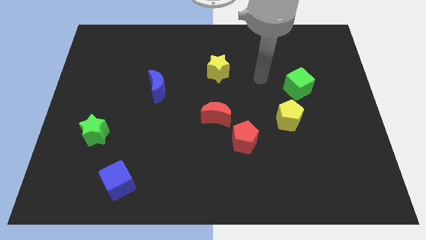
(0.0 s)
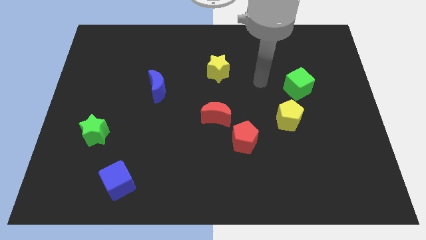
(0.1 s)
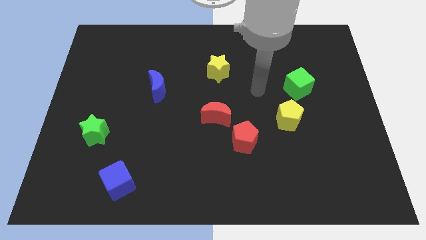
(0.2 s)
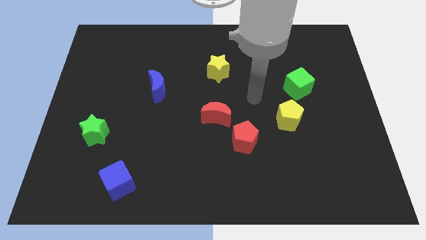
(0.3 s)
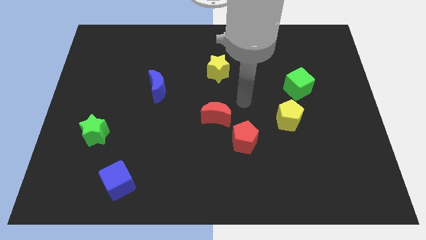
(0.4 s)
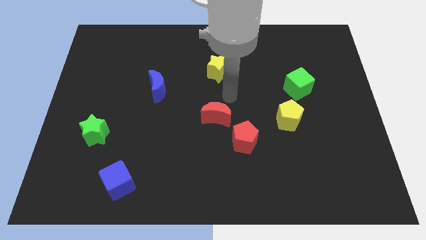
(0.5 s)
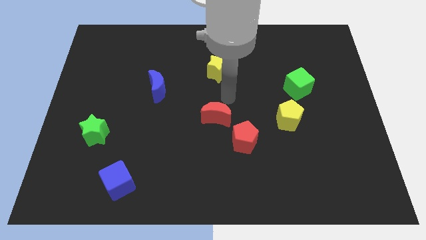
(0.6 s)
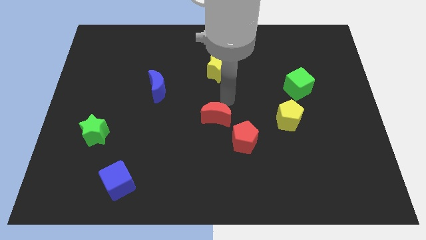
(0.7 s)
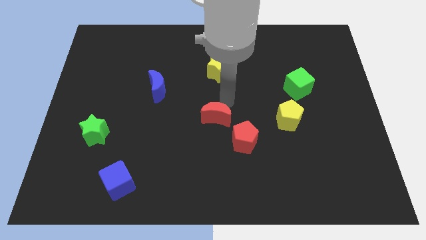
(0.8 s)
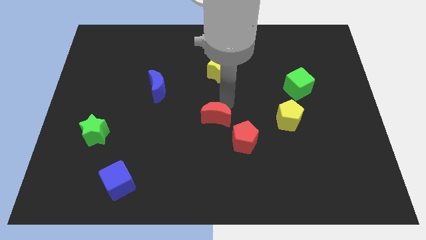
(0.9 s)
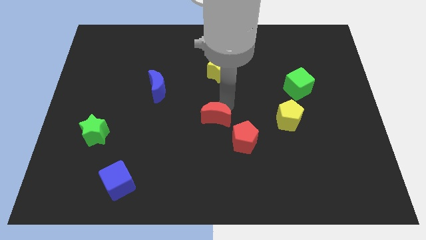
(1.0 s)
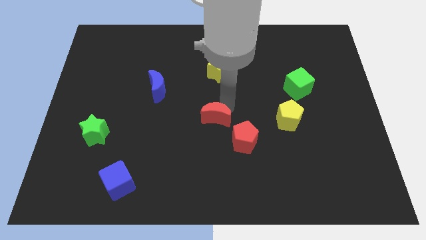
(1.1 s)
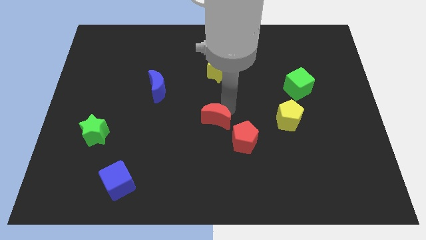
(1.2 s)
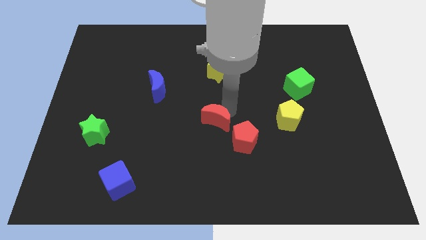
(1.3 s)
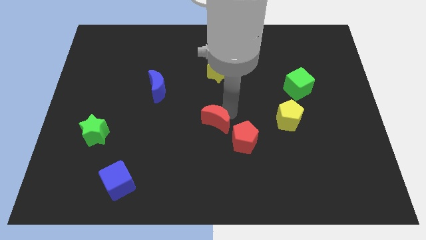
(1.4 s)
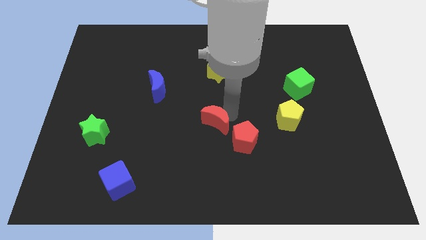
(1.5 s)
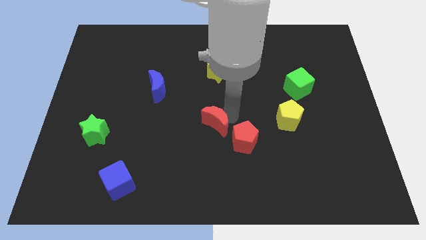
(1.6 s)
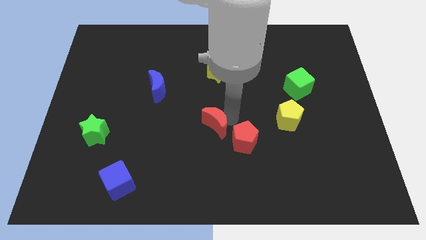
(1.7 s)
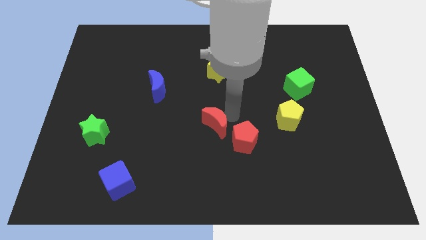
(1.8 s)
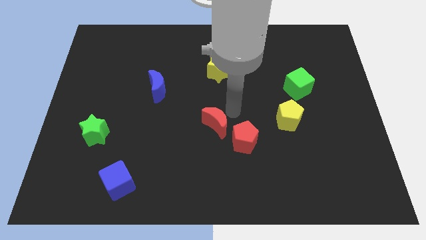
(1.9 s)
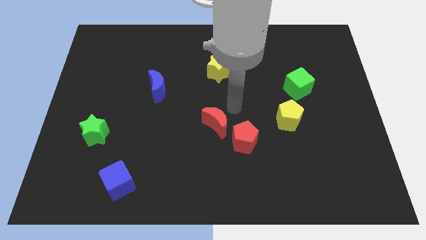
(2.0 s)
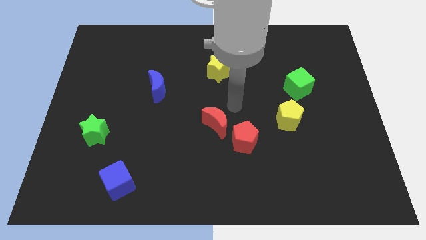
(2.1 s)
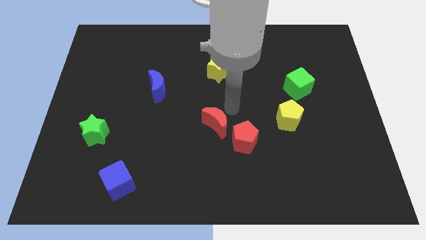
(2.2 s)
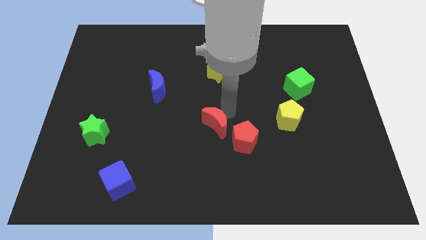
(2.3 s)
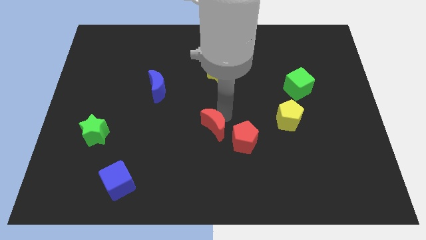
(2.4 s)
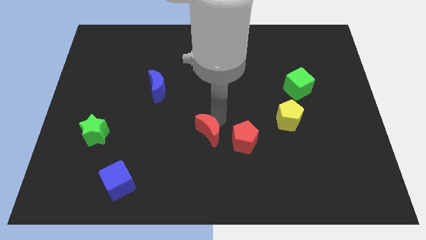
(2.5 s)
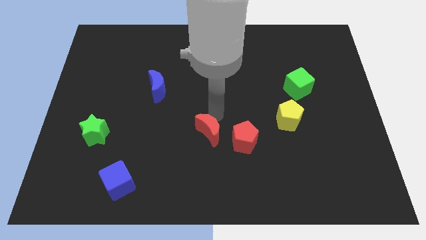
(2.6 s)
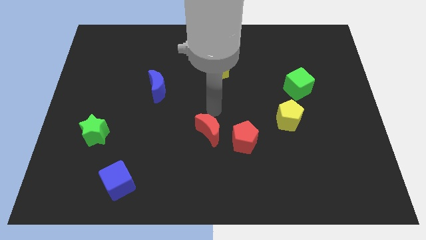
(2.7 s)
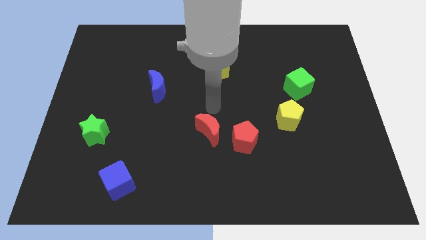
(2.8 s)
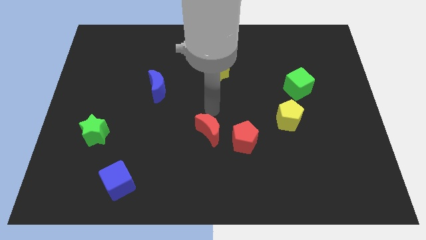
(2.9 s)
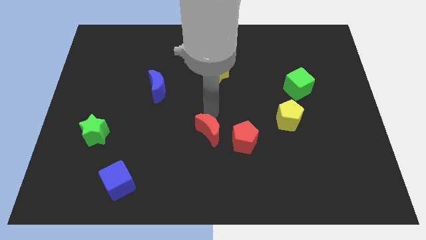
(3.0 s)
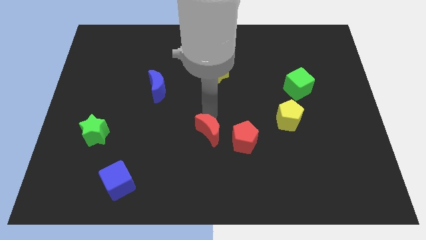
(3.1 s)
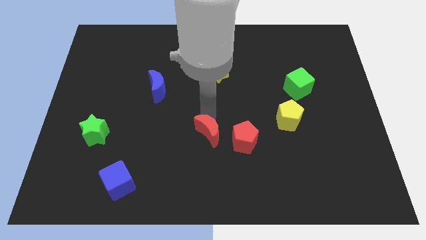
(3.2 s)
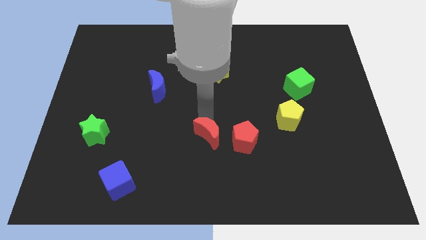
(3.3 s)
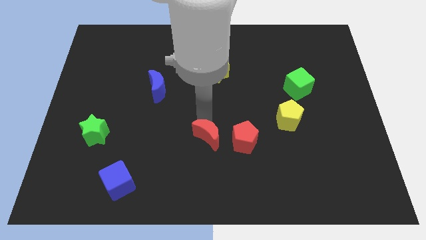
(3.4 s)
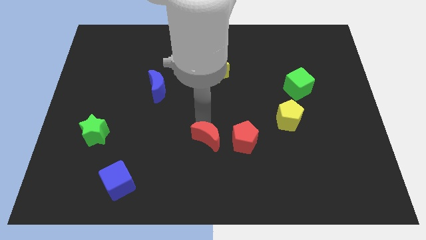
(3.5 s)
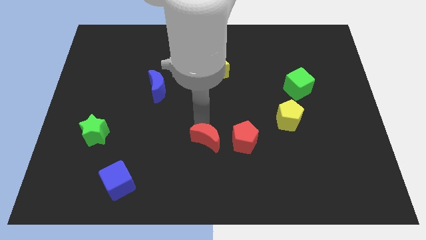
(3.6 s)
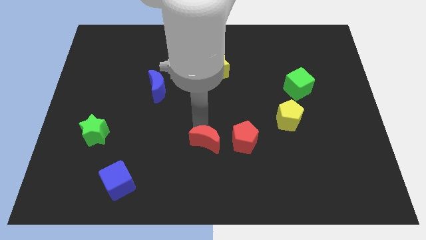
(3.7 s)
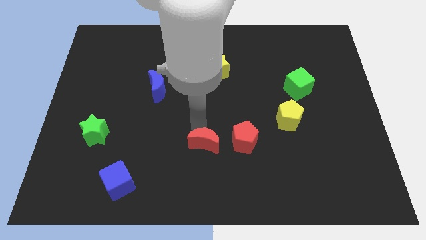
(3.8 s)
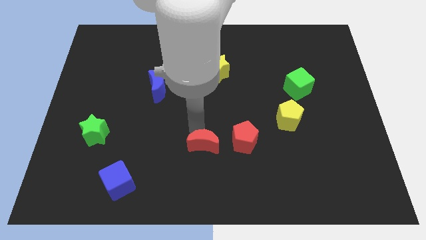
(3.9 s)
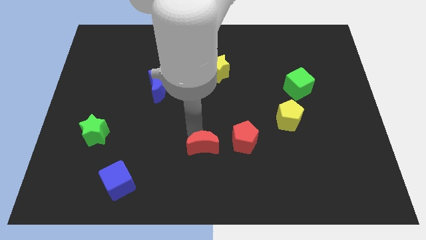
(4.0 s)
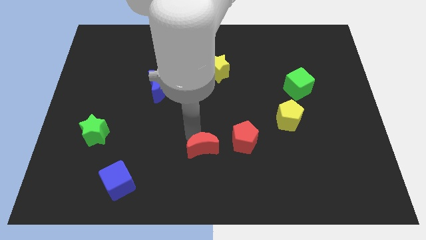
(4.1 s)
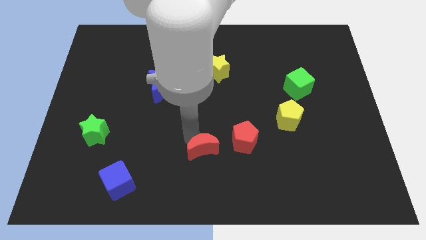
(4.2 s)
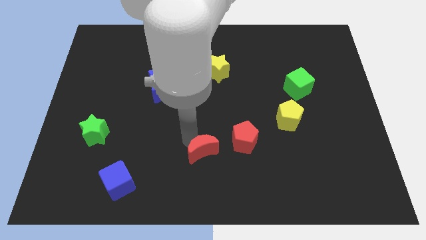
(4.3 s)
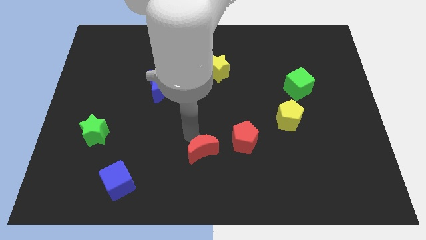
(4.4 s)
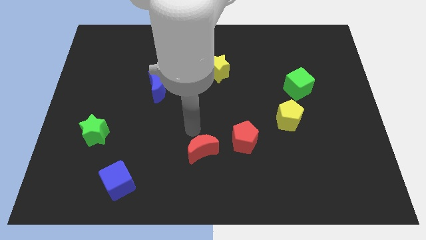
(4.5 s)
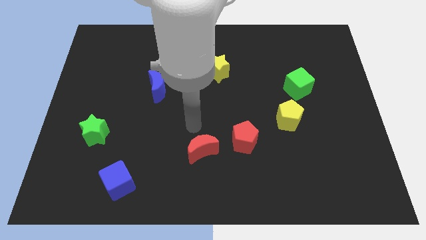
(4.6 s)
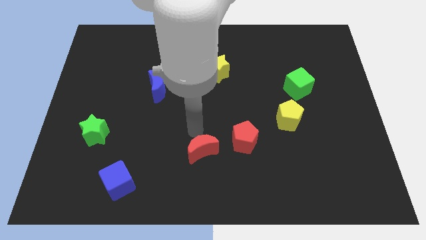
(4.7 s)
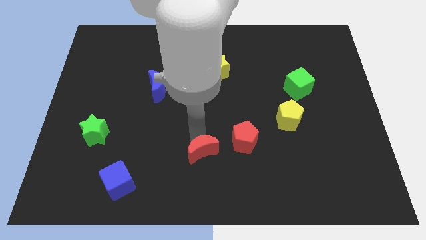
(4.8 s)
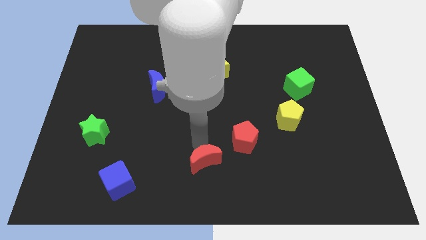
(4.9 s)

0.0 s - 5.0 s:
move the red moon to the bottom

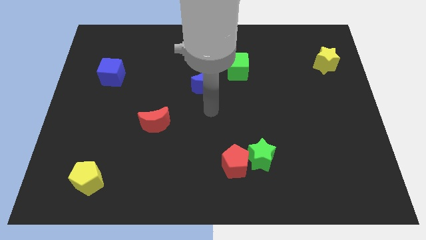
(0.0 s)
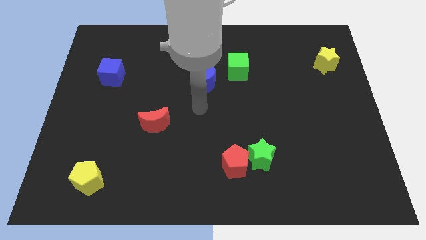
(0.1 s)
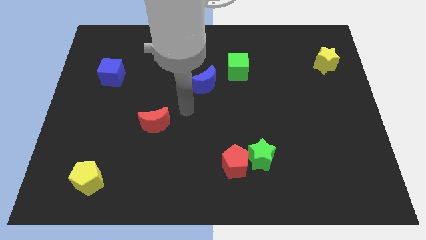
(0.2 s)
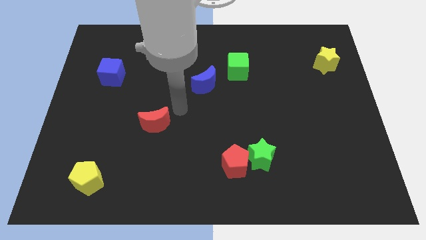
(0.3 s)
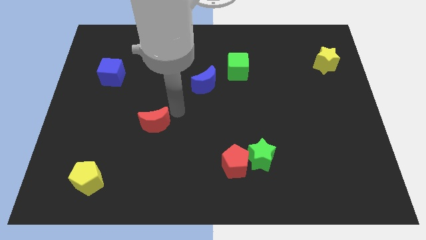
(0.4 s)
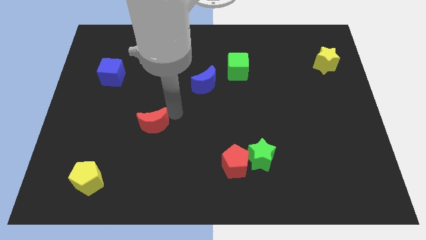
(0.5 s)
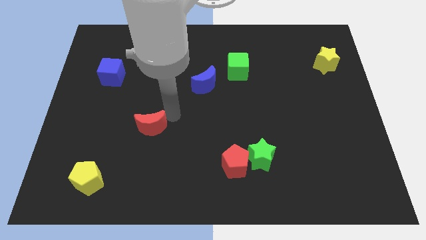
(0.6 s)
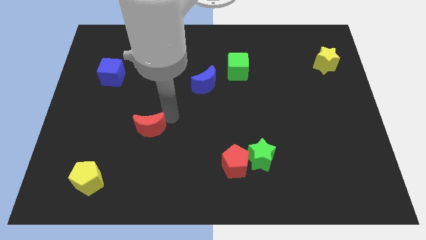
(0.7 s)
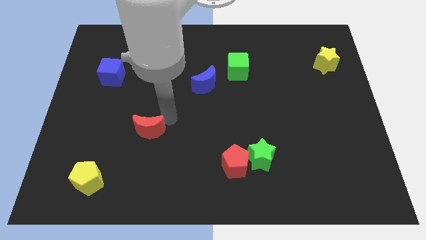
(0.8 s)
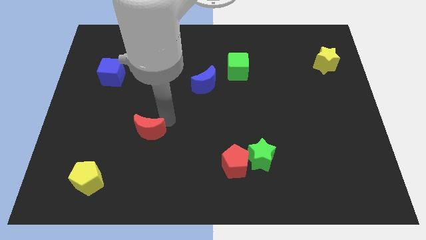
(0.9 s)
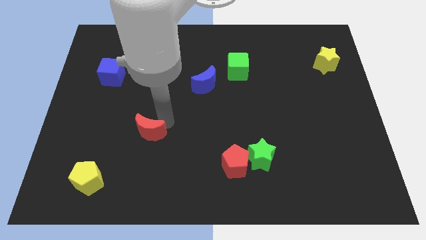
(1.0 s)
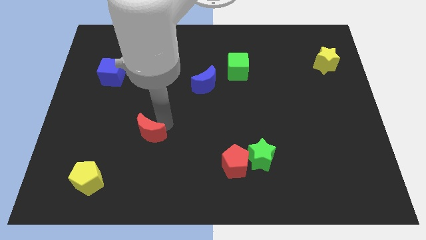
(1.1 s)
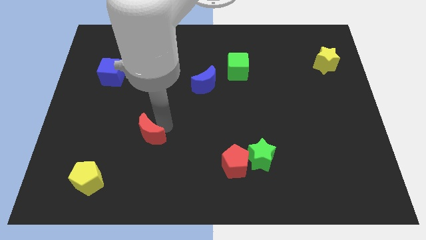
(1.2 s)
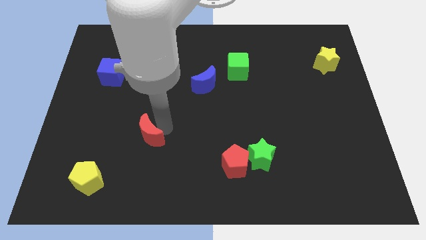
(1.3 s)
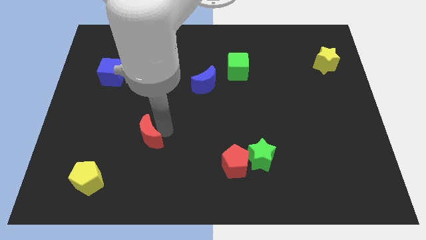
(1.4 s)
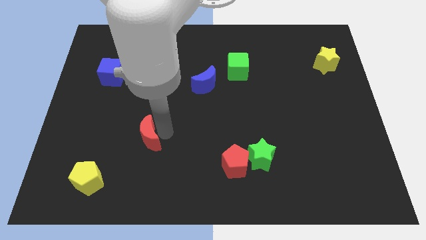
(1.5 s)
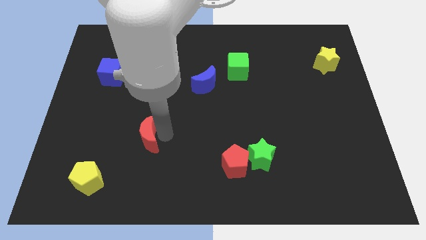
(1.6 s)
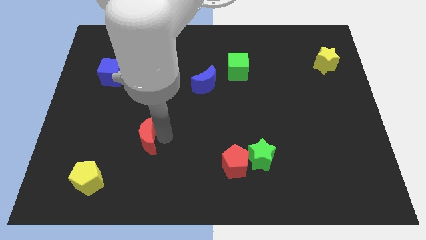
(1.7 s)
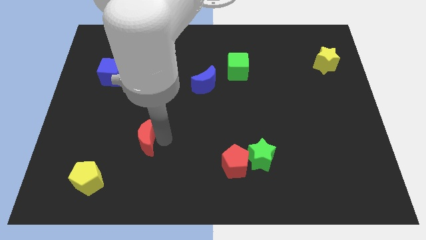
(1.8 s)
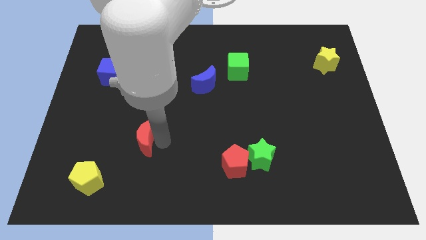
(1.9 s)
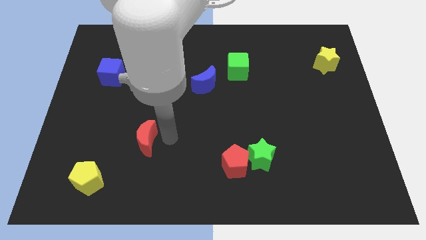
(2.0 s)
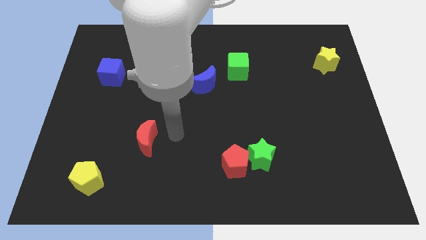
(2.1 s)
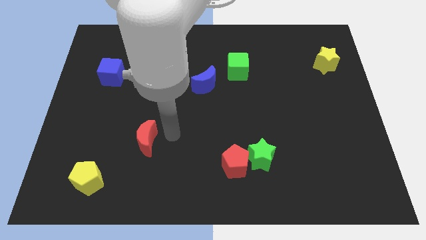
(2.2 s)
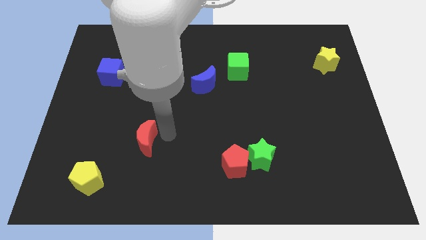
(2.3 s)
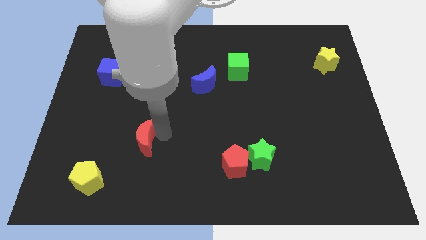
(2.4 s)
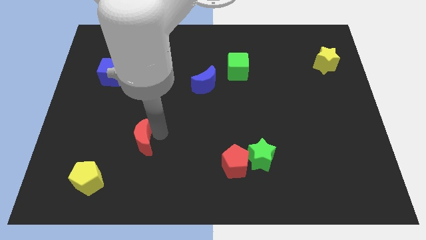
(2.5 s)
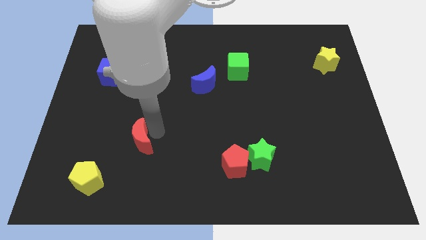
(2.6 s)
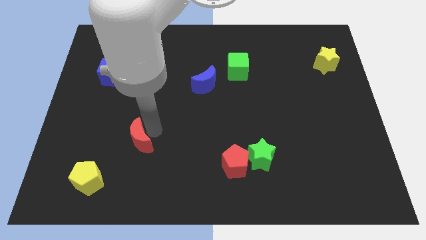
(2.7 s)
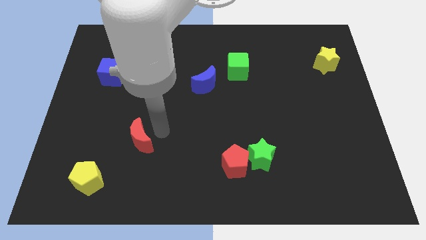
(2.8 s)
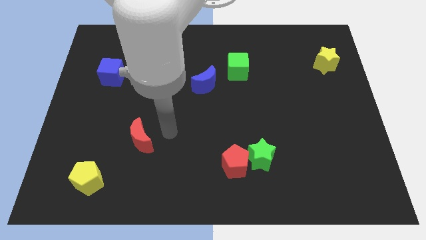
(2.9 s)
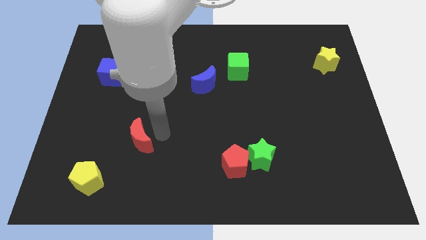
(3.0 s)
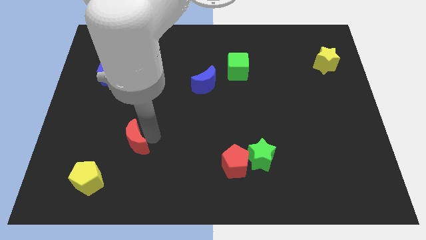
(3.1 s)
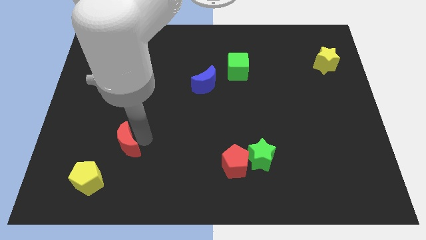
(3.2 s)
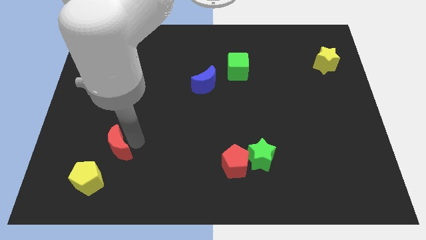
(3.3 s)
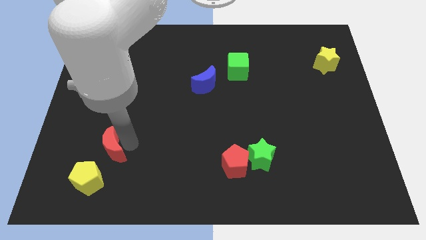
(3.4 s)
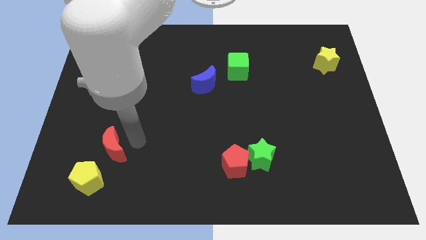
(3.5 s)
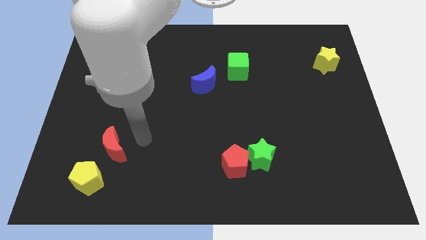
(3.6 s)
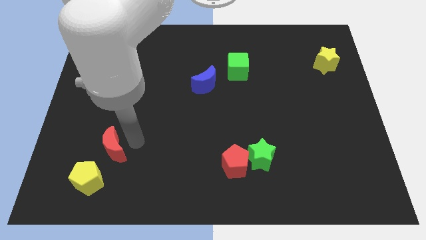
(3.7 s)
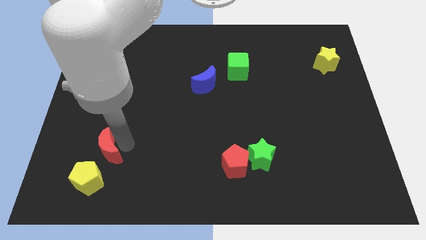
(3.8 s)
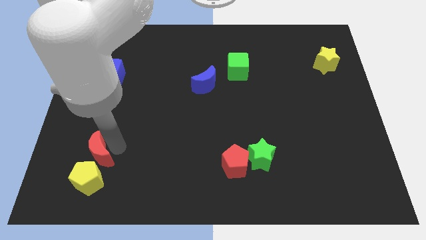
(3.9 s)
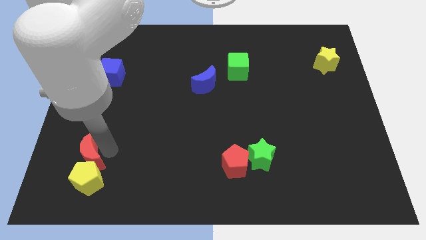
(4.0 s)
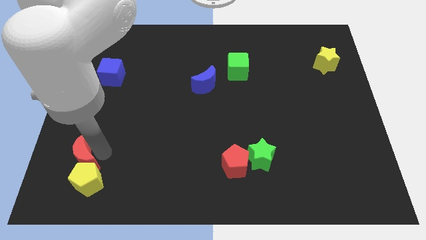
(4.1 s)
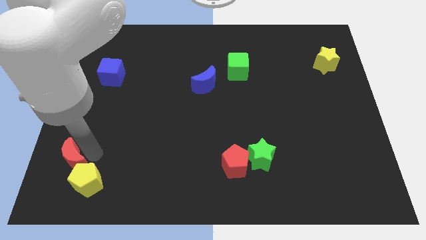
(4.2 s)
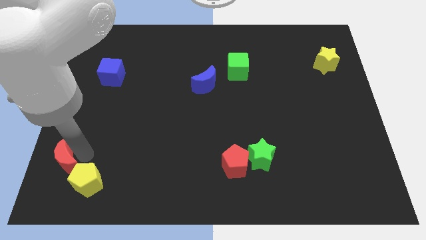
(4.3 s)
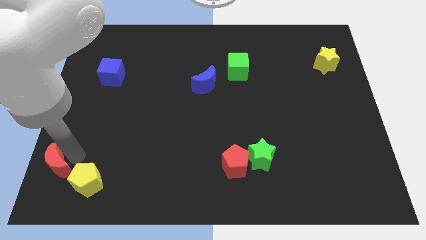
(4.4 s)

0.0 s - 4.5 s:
put the red moon to the bottom left
